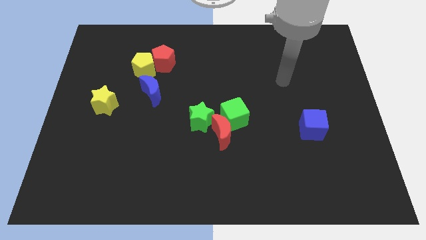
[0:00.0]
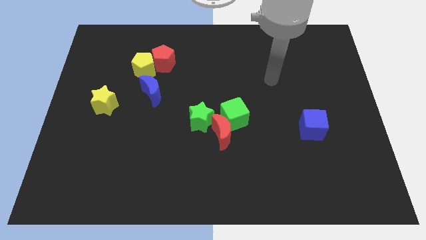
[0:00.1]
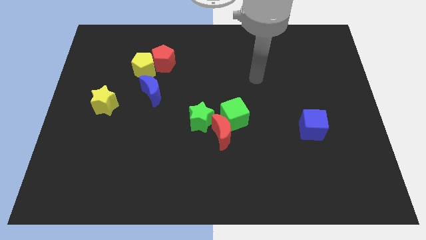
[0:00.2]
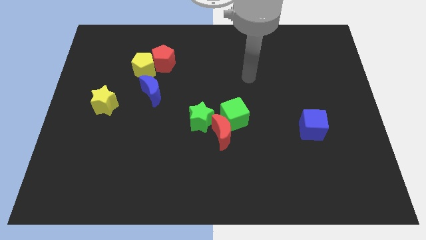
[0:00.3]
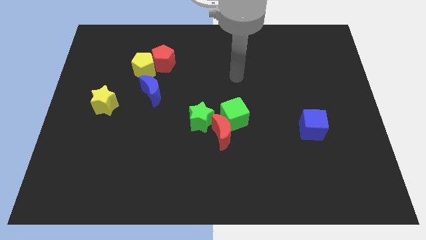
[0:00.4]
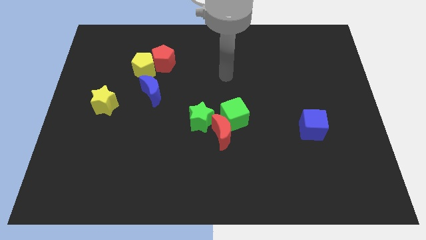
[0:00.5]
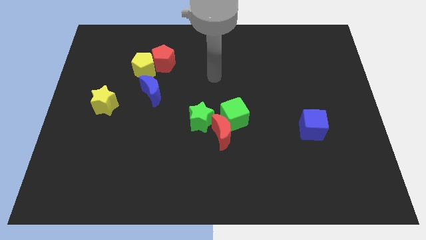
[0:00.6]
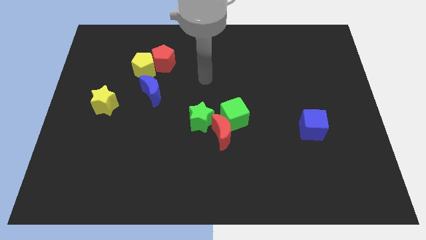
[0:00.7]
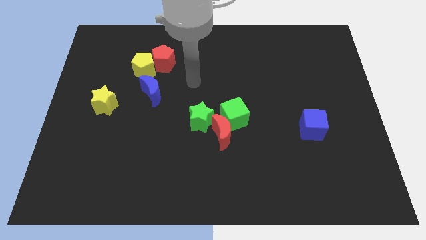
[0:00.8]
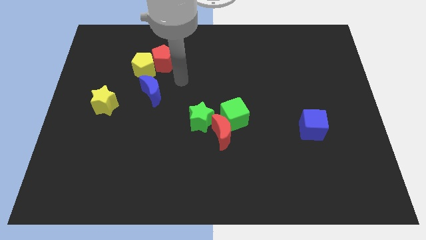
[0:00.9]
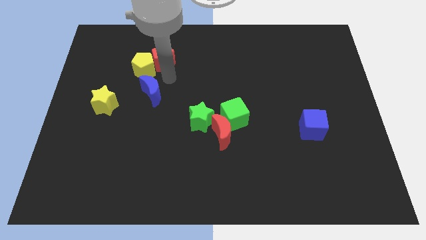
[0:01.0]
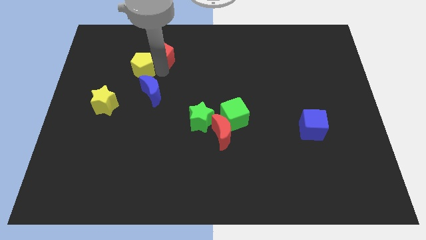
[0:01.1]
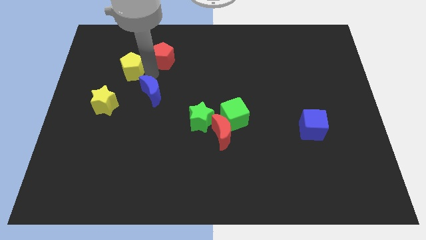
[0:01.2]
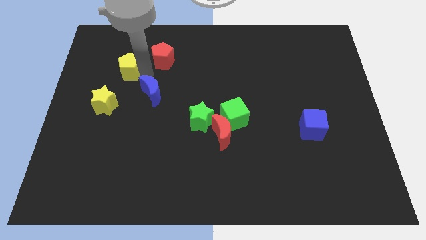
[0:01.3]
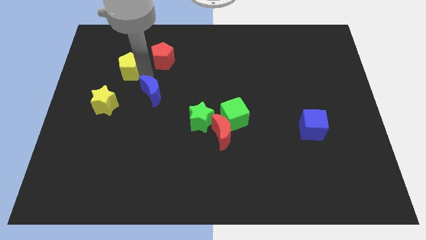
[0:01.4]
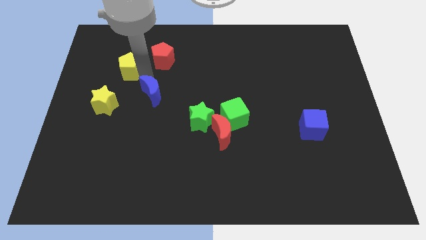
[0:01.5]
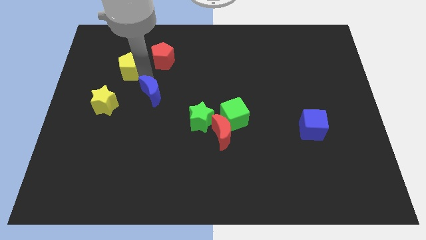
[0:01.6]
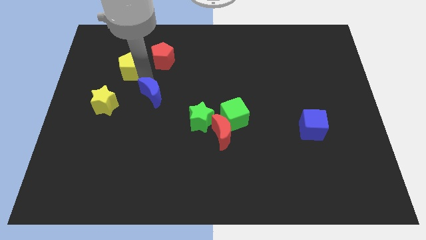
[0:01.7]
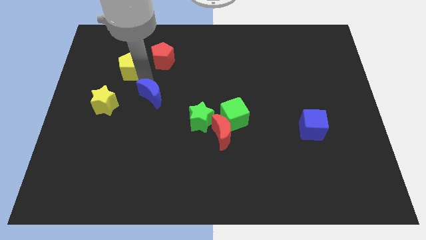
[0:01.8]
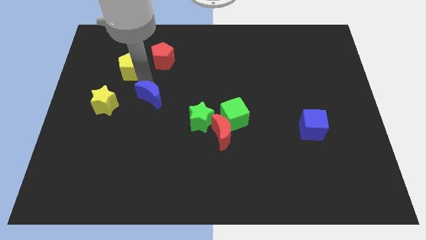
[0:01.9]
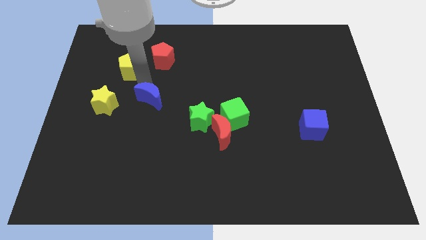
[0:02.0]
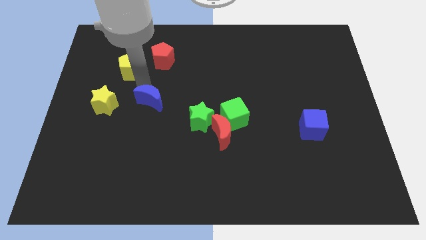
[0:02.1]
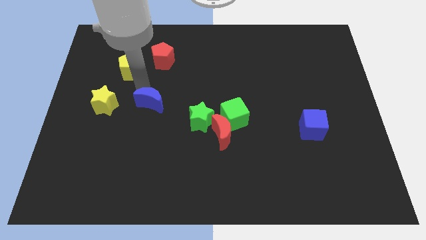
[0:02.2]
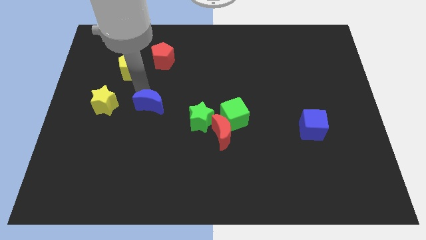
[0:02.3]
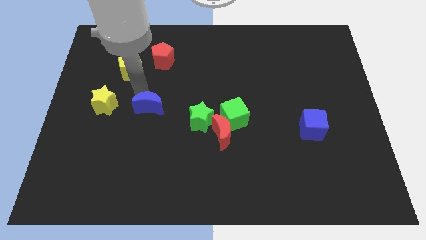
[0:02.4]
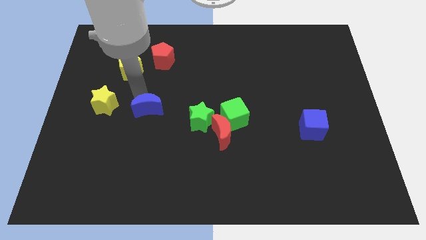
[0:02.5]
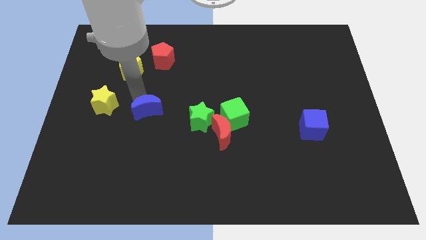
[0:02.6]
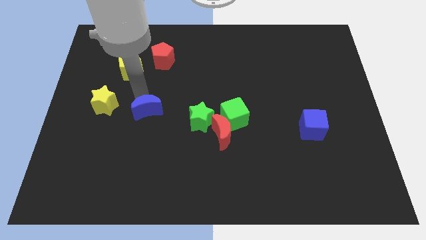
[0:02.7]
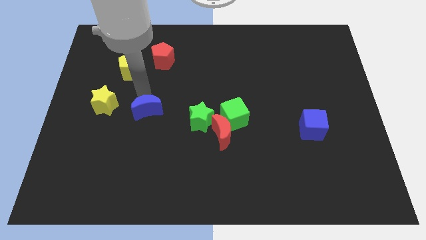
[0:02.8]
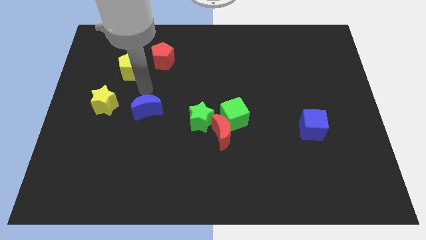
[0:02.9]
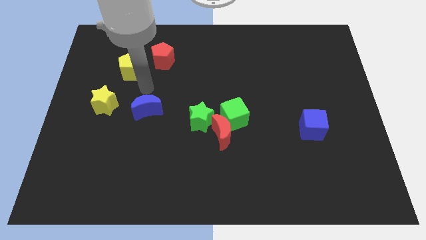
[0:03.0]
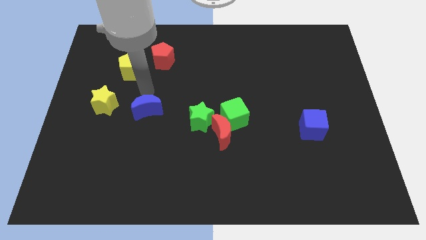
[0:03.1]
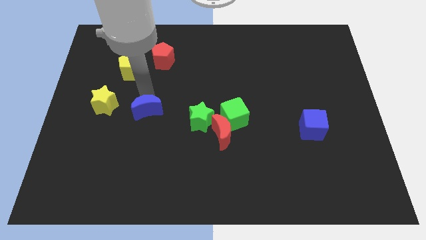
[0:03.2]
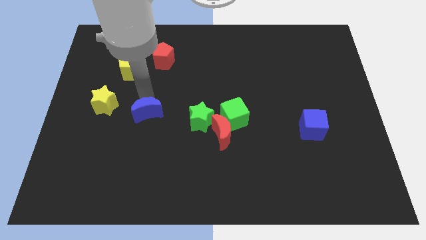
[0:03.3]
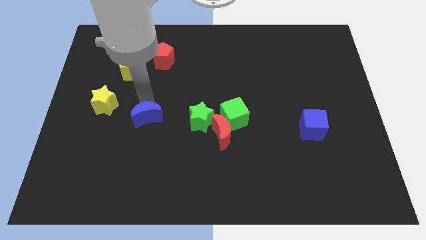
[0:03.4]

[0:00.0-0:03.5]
slide the blue moon downwards a bit

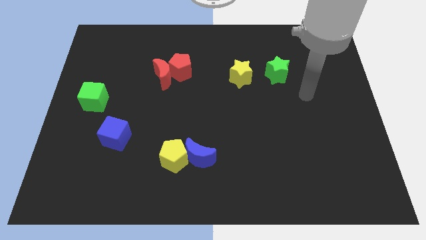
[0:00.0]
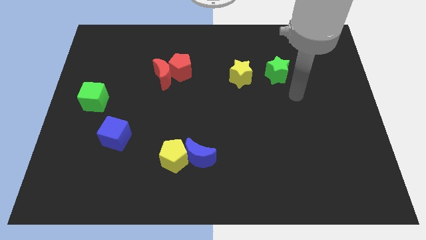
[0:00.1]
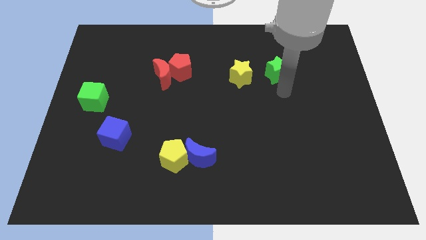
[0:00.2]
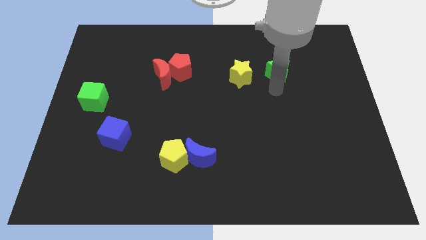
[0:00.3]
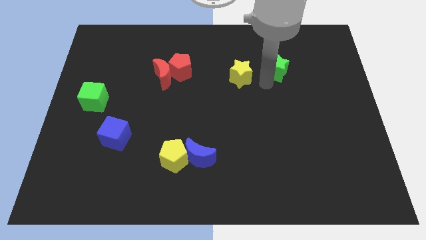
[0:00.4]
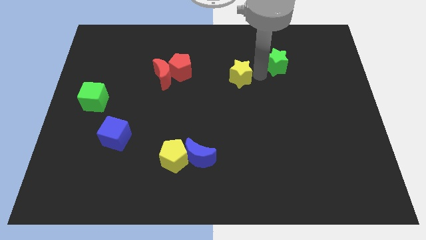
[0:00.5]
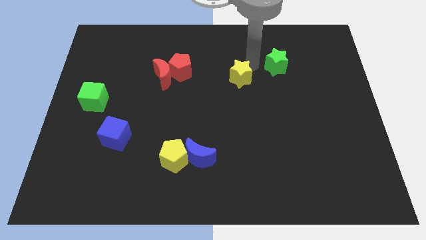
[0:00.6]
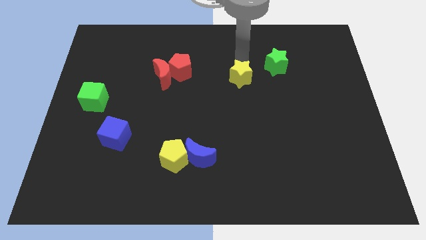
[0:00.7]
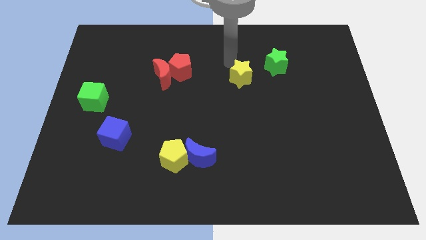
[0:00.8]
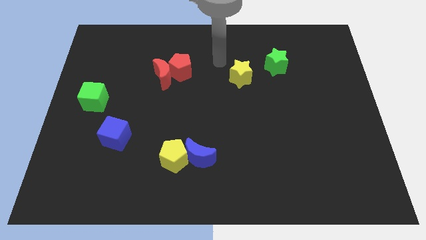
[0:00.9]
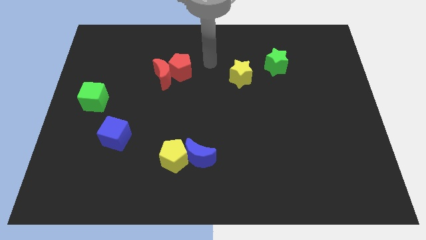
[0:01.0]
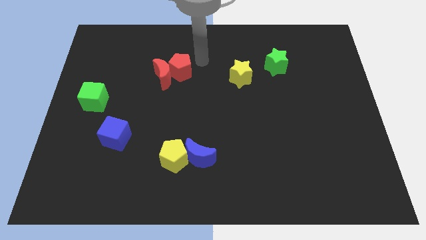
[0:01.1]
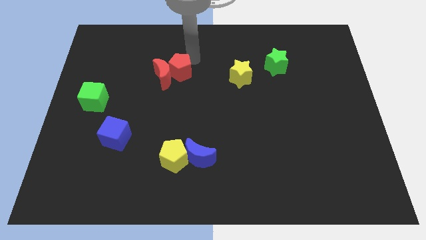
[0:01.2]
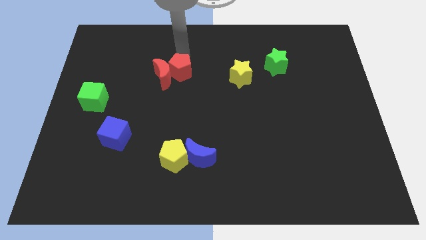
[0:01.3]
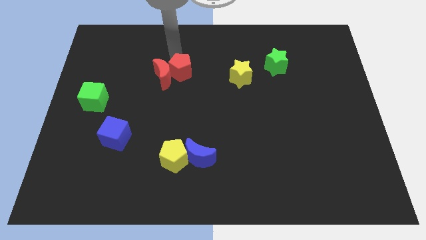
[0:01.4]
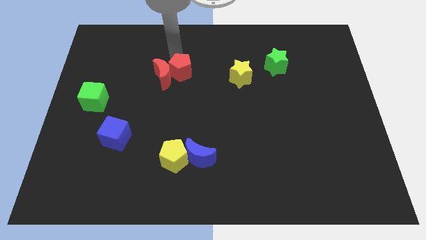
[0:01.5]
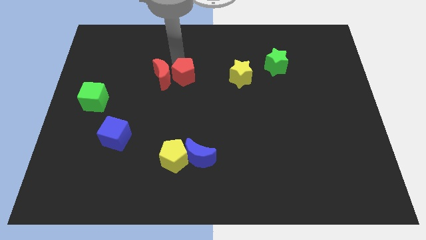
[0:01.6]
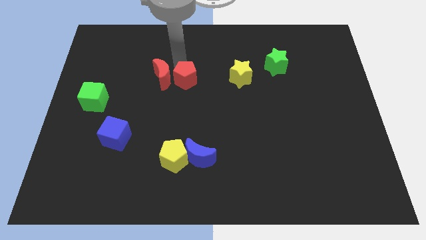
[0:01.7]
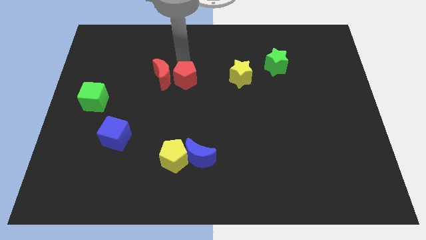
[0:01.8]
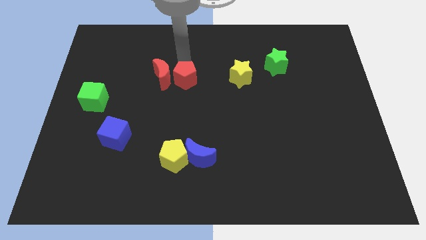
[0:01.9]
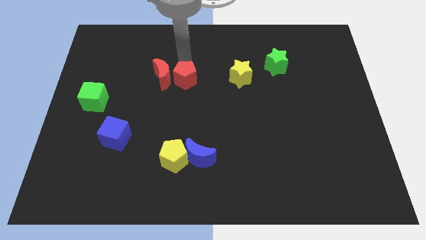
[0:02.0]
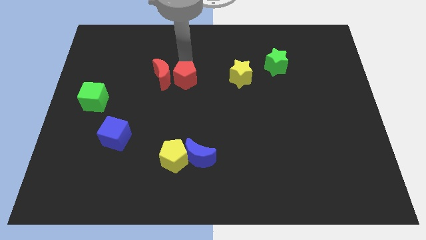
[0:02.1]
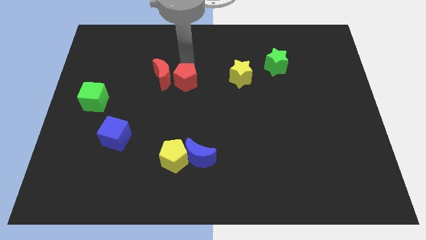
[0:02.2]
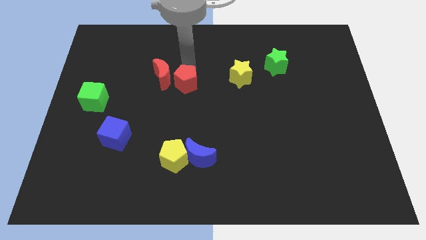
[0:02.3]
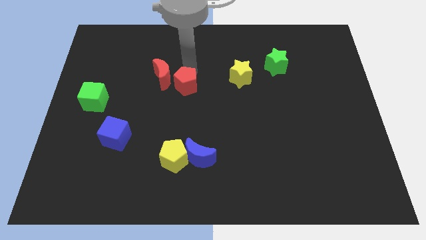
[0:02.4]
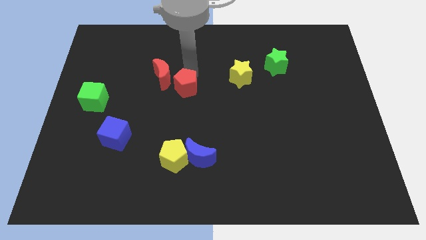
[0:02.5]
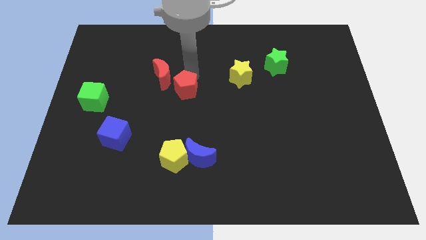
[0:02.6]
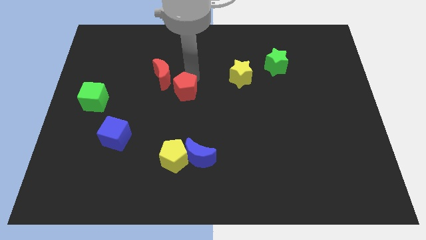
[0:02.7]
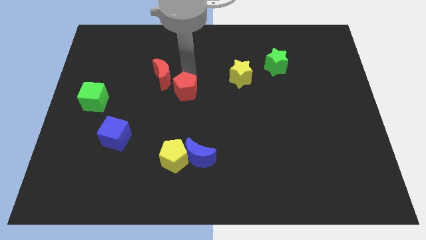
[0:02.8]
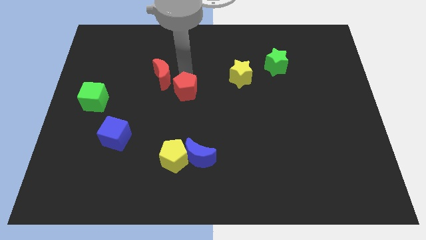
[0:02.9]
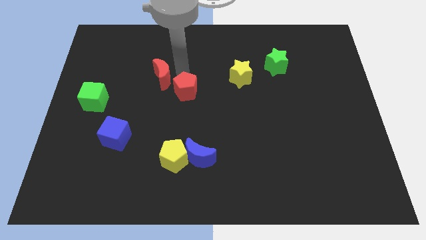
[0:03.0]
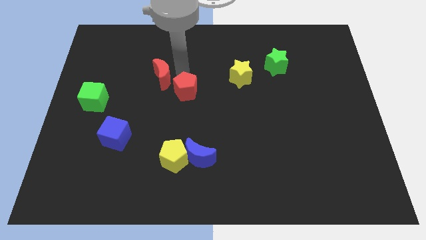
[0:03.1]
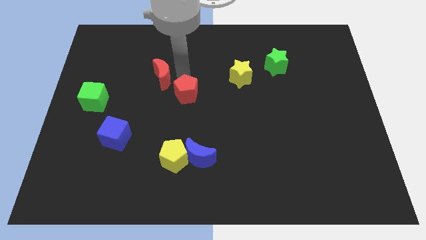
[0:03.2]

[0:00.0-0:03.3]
push the red pentagon slightly downwards

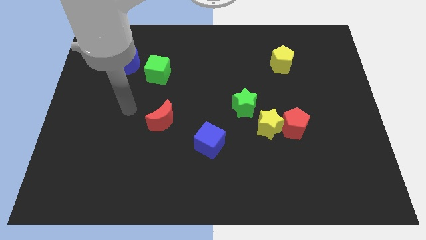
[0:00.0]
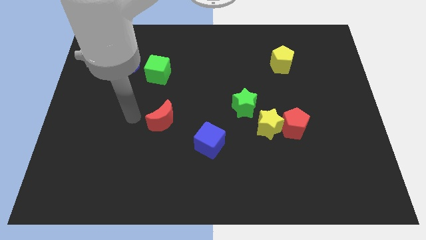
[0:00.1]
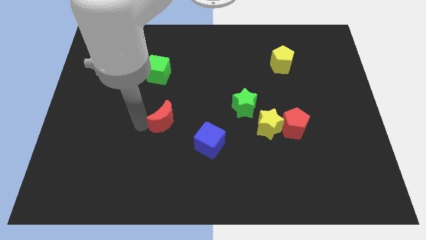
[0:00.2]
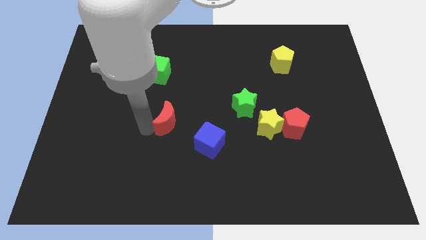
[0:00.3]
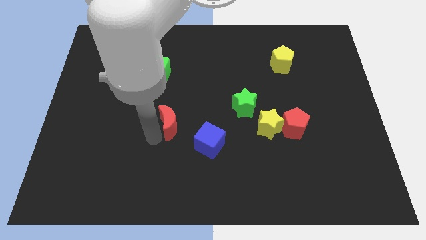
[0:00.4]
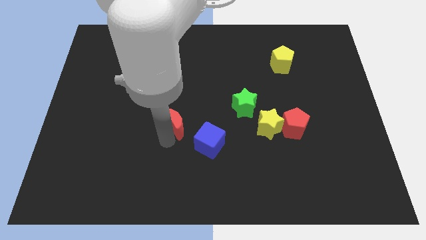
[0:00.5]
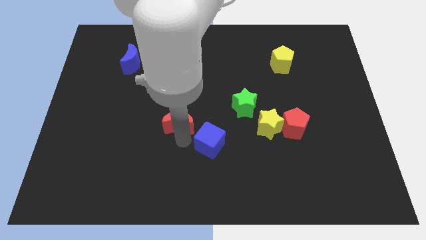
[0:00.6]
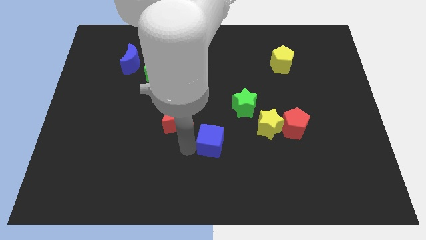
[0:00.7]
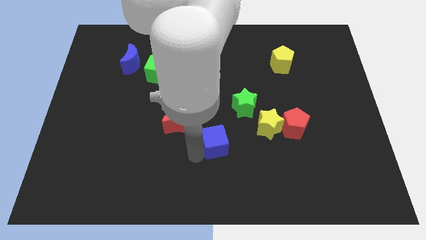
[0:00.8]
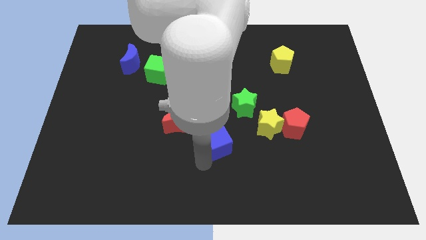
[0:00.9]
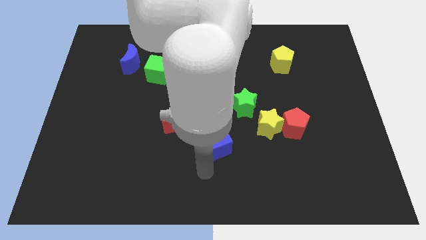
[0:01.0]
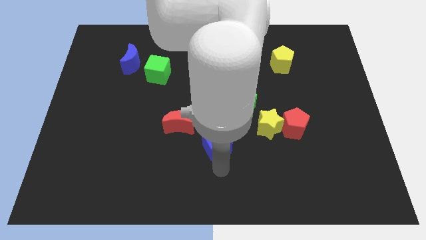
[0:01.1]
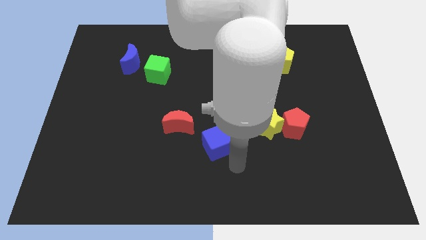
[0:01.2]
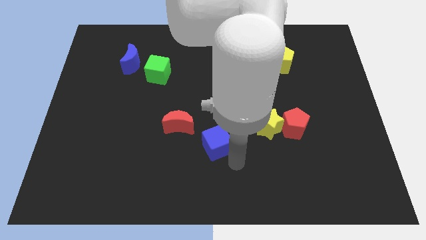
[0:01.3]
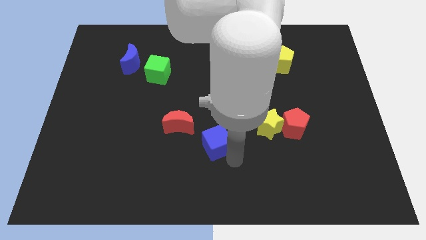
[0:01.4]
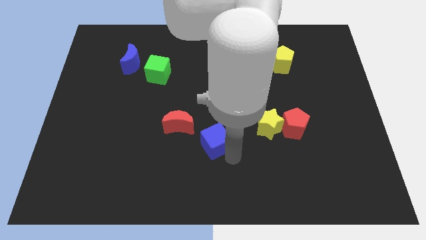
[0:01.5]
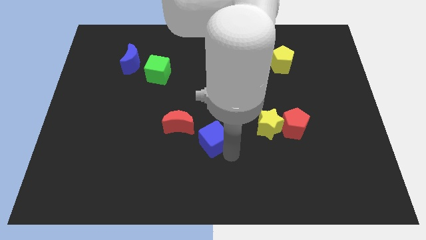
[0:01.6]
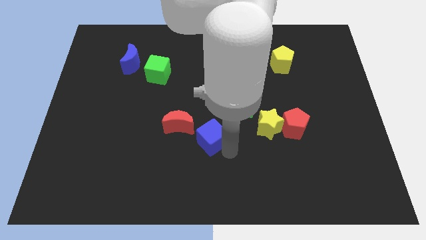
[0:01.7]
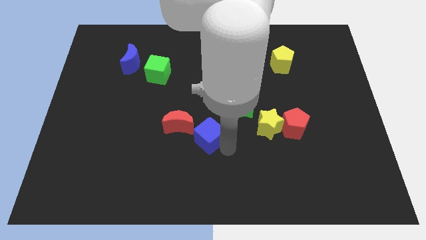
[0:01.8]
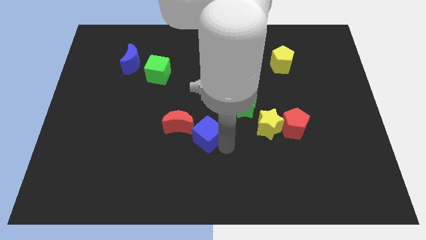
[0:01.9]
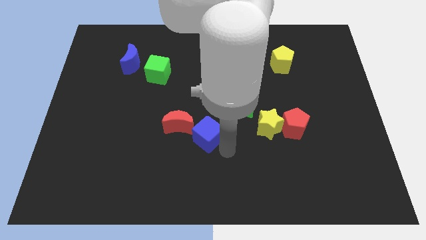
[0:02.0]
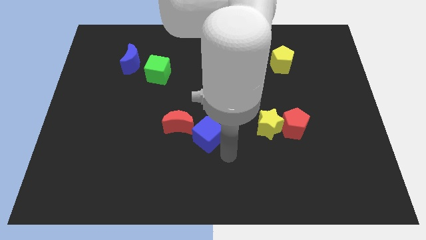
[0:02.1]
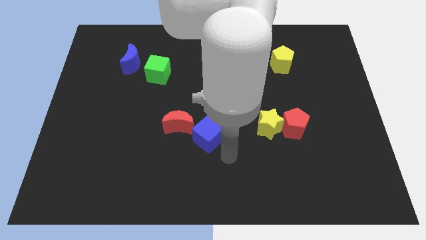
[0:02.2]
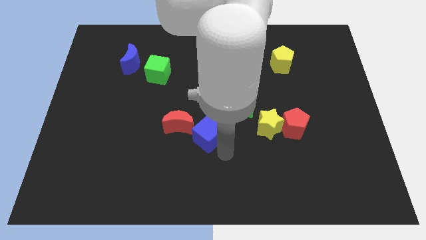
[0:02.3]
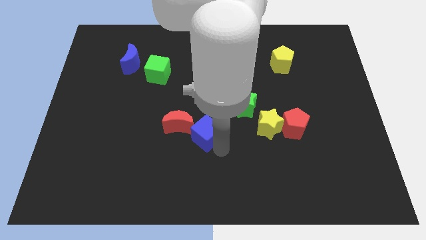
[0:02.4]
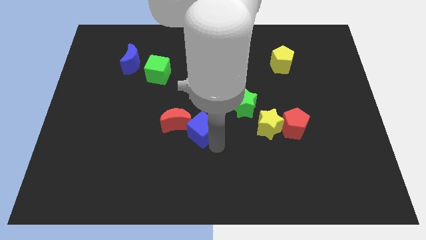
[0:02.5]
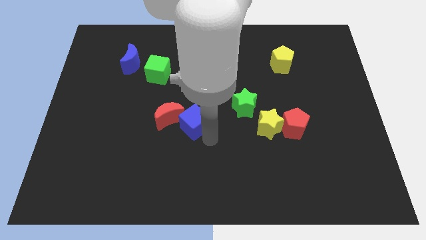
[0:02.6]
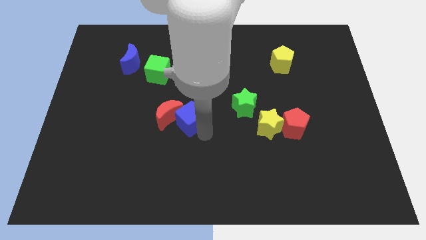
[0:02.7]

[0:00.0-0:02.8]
push the blue cube somewhat up and left
